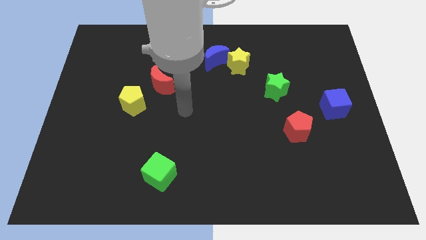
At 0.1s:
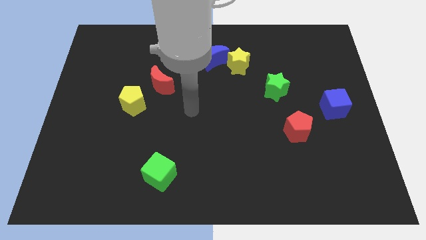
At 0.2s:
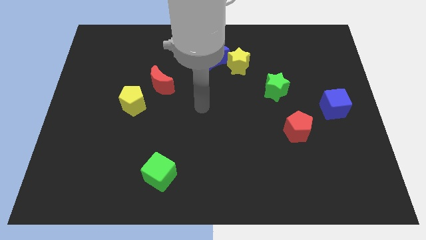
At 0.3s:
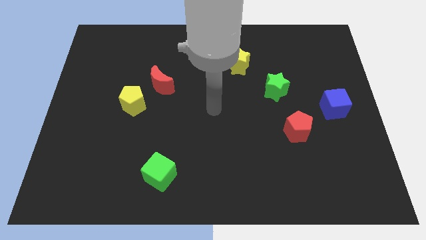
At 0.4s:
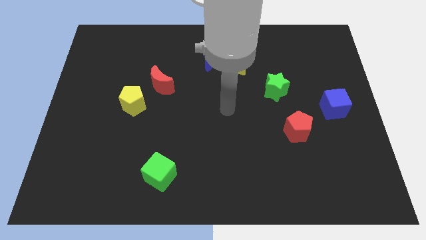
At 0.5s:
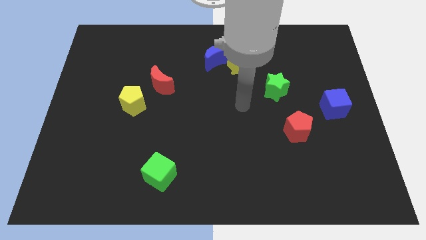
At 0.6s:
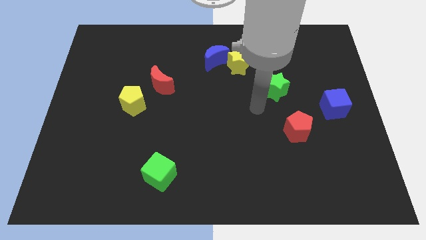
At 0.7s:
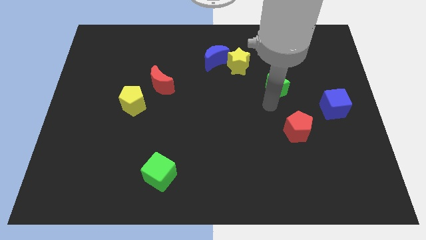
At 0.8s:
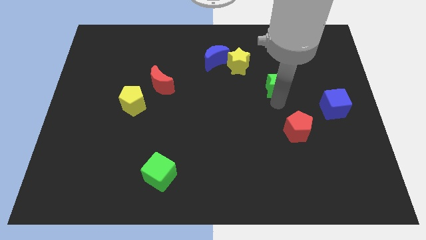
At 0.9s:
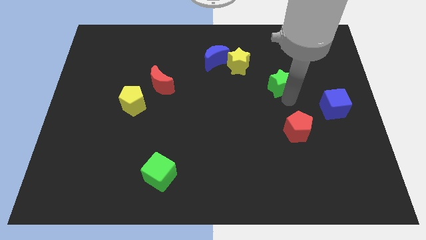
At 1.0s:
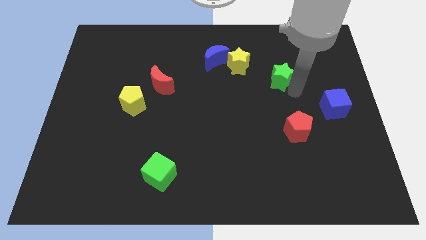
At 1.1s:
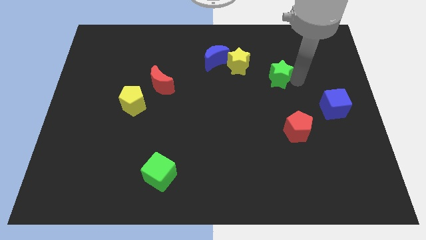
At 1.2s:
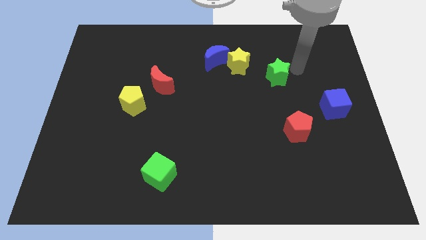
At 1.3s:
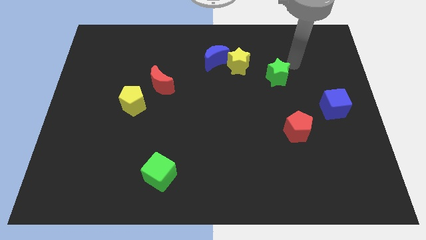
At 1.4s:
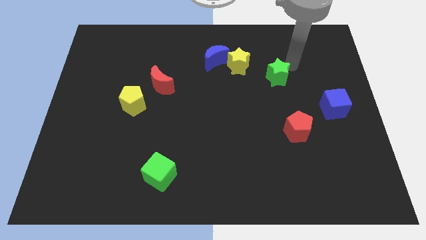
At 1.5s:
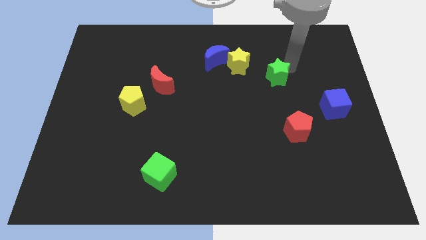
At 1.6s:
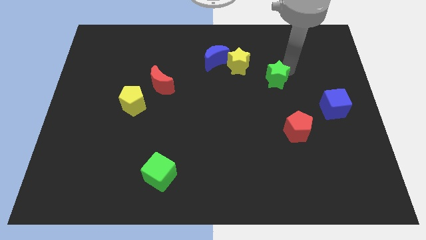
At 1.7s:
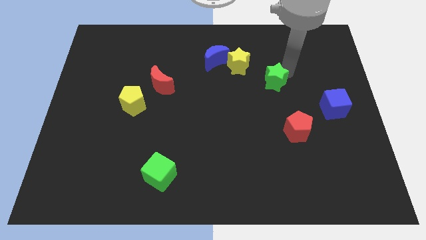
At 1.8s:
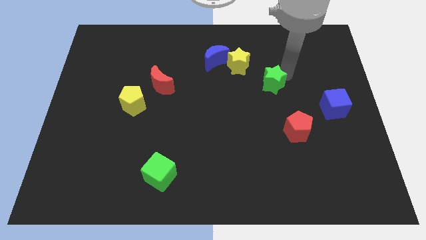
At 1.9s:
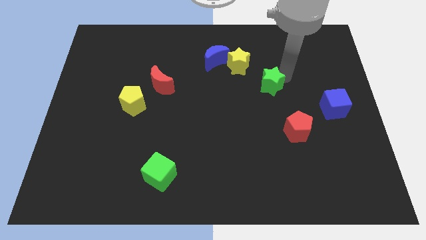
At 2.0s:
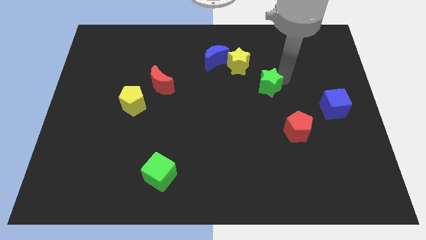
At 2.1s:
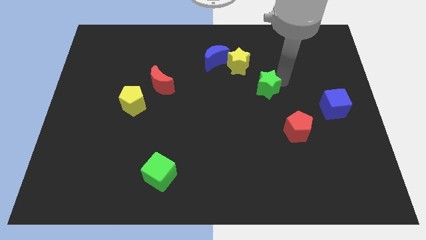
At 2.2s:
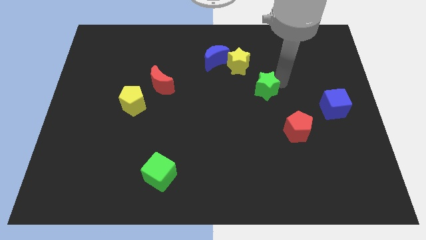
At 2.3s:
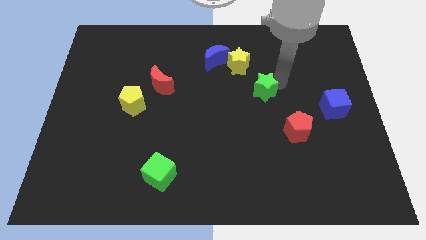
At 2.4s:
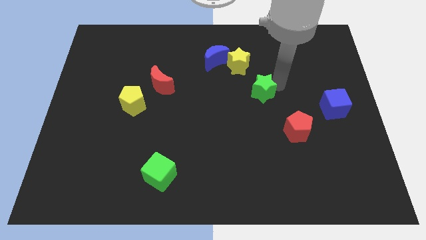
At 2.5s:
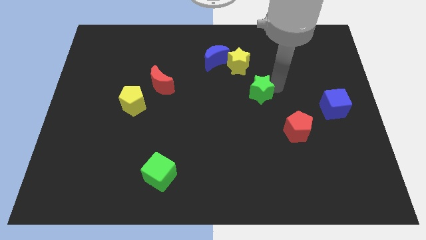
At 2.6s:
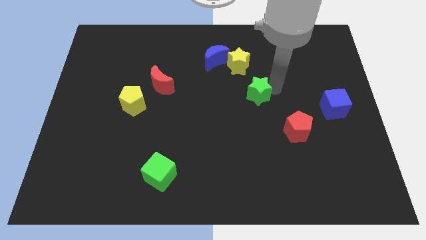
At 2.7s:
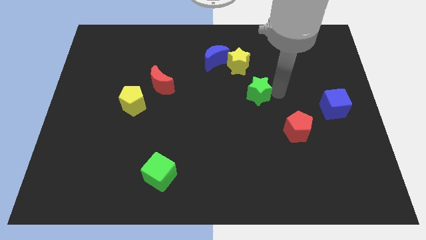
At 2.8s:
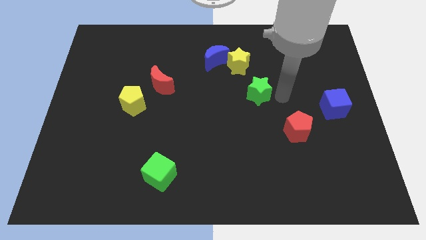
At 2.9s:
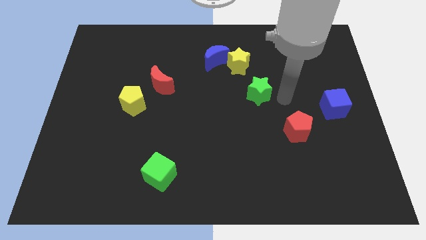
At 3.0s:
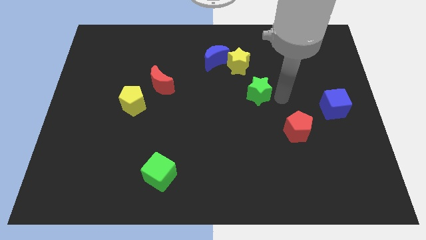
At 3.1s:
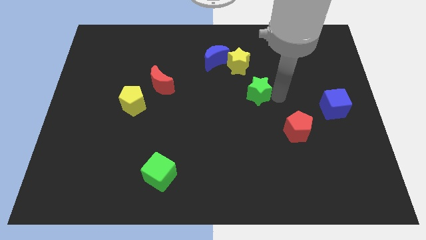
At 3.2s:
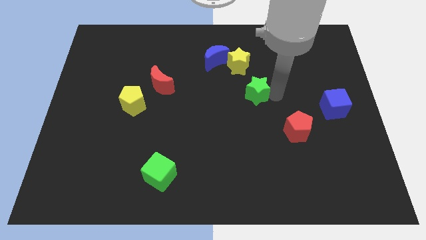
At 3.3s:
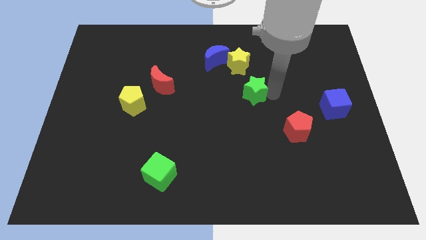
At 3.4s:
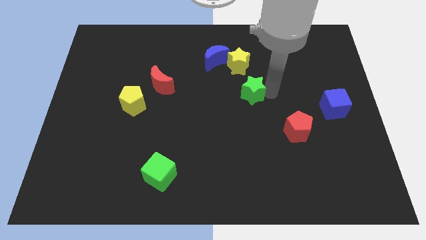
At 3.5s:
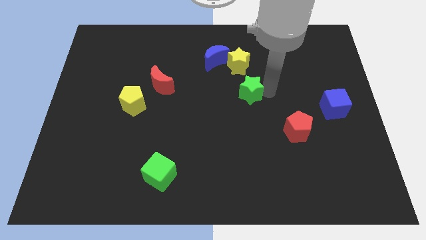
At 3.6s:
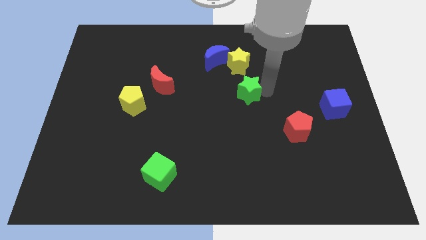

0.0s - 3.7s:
push the green star slightly left

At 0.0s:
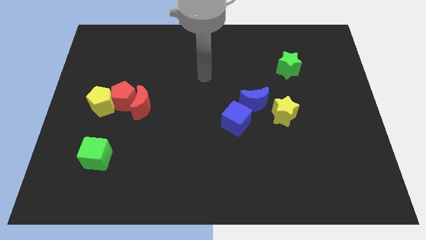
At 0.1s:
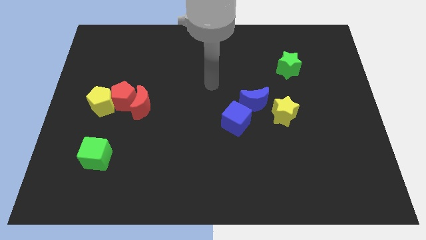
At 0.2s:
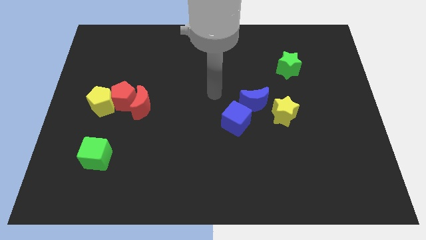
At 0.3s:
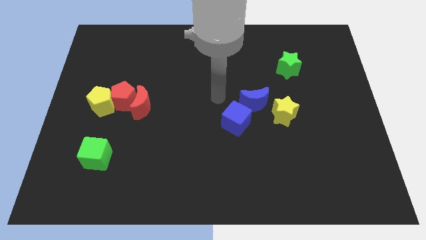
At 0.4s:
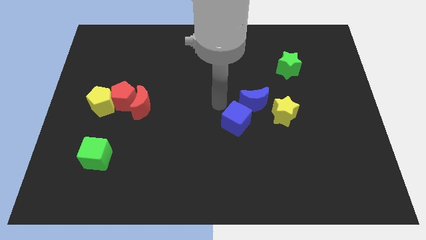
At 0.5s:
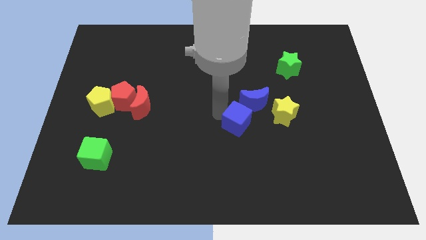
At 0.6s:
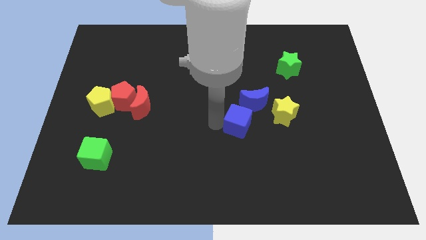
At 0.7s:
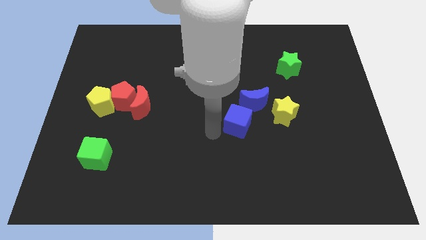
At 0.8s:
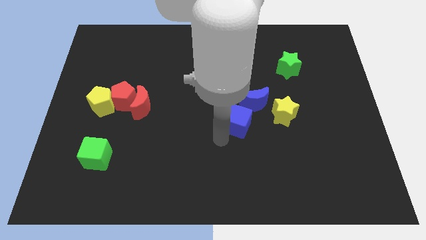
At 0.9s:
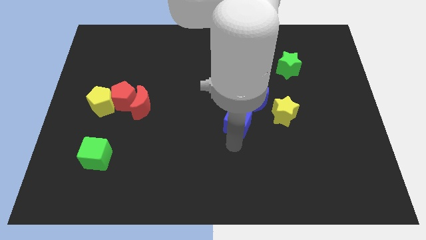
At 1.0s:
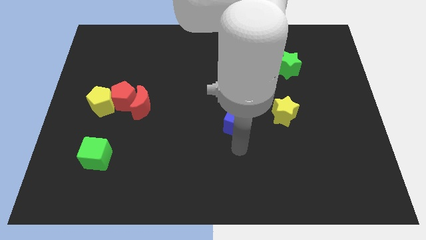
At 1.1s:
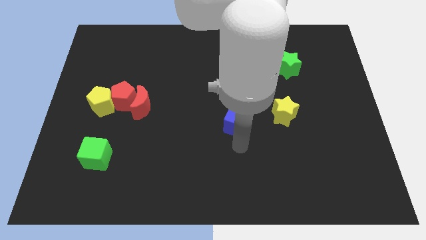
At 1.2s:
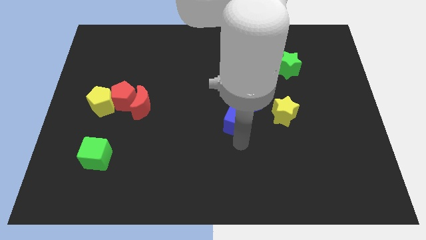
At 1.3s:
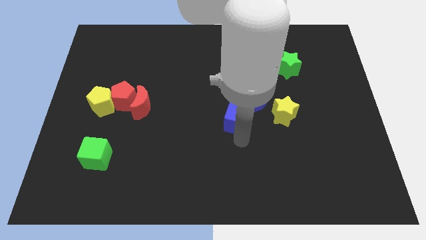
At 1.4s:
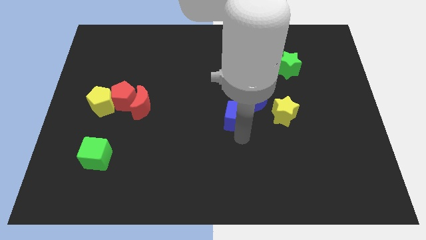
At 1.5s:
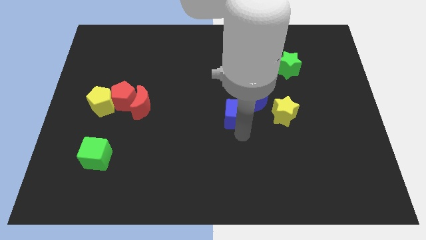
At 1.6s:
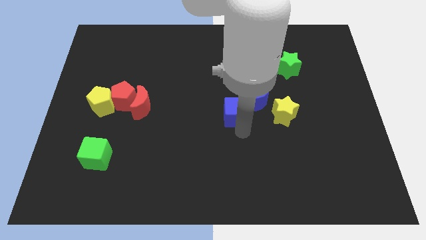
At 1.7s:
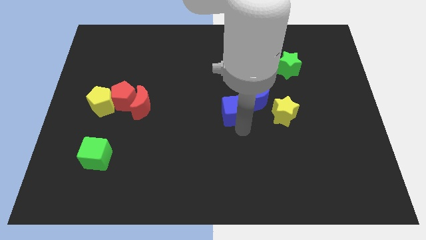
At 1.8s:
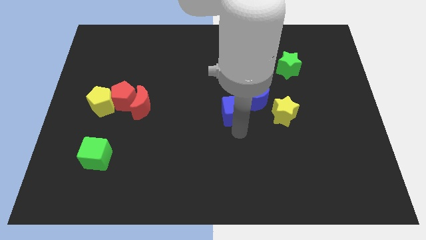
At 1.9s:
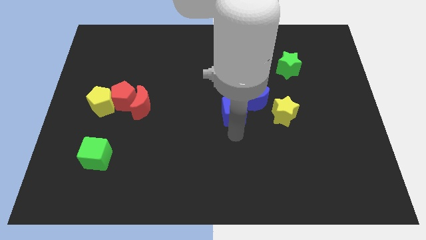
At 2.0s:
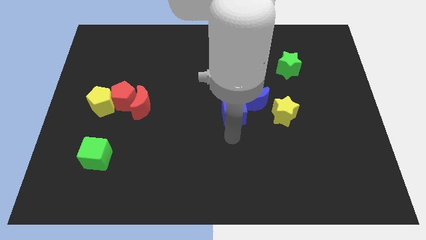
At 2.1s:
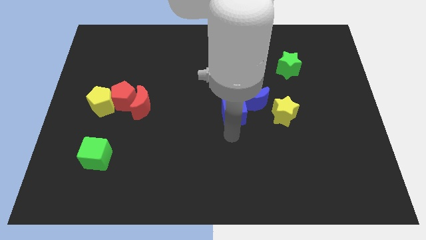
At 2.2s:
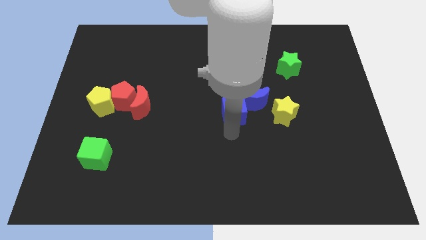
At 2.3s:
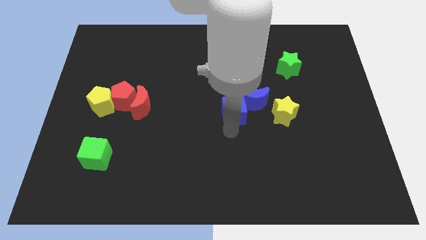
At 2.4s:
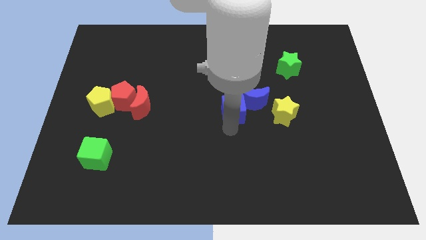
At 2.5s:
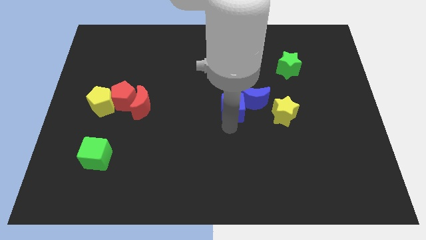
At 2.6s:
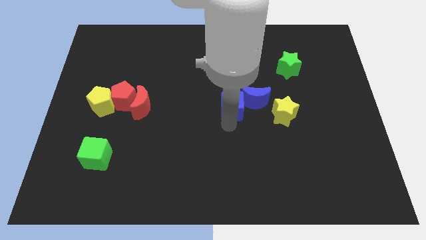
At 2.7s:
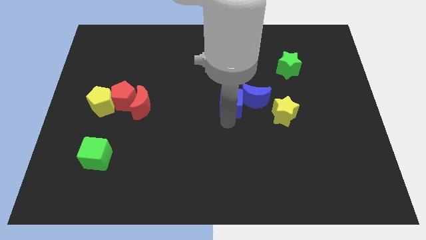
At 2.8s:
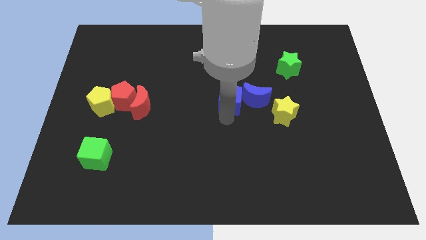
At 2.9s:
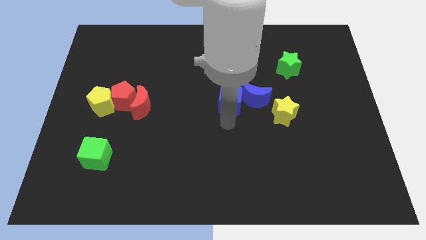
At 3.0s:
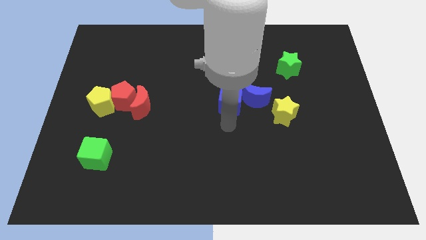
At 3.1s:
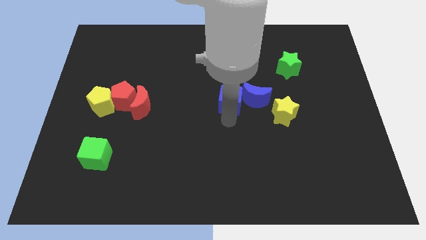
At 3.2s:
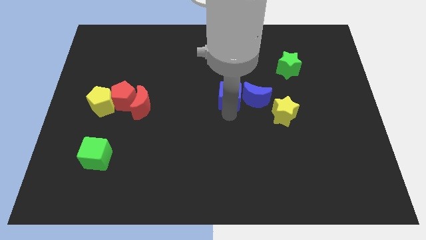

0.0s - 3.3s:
slightly slide the blue cube up

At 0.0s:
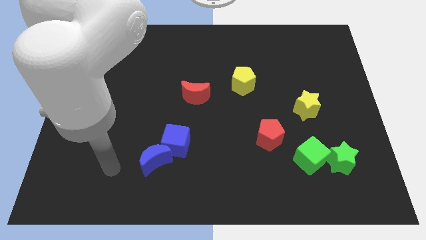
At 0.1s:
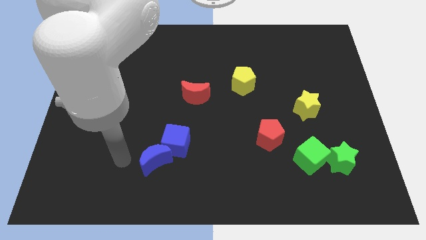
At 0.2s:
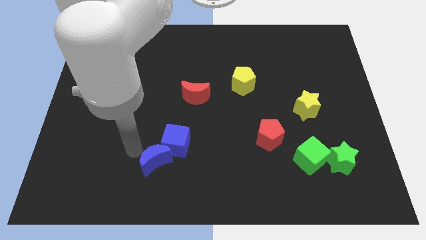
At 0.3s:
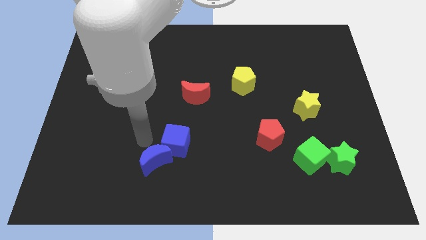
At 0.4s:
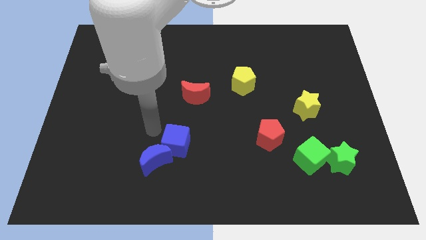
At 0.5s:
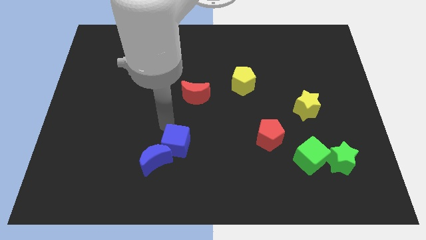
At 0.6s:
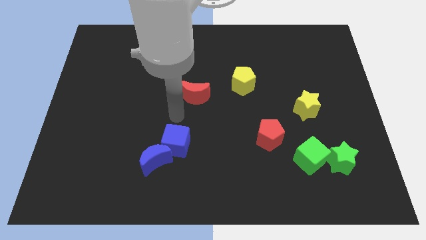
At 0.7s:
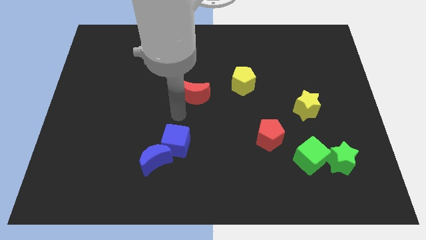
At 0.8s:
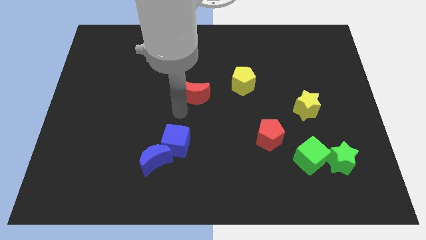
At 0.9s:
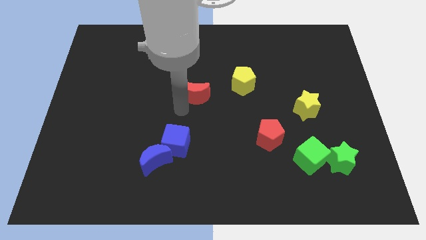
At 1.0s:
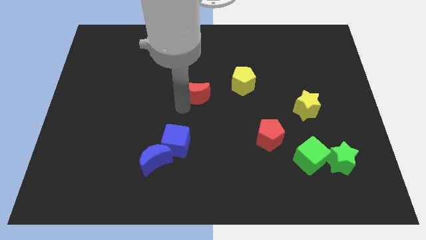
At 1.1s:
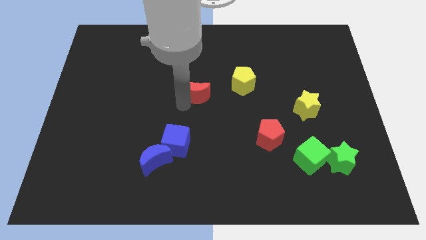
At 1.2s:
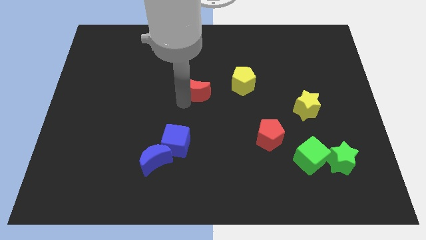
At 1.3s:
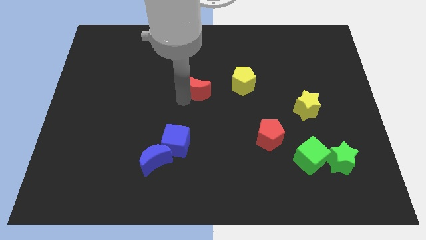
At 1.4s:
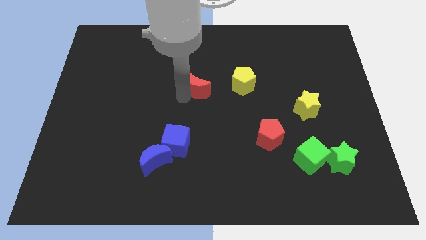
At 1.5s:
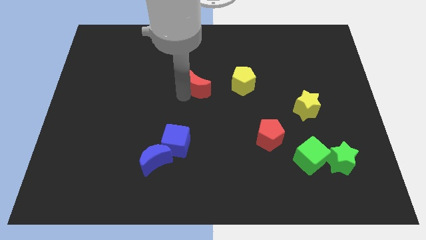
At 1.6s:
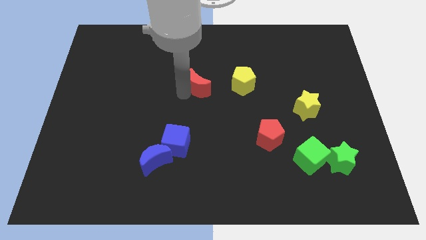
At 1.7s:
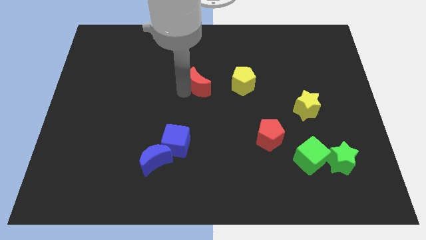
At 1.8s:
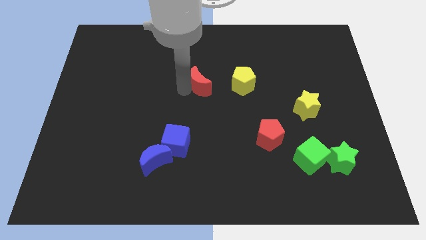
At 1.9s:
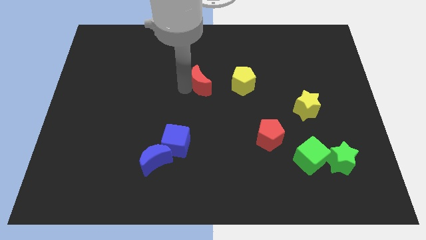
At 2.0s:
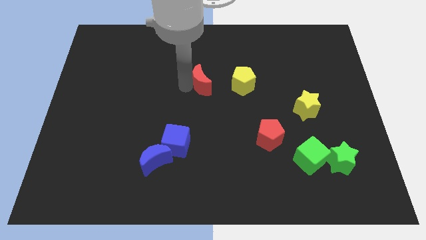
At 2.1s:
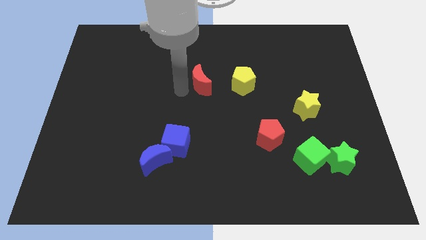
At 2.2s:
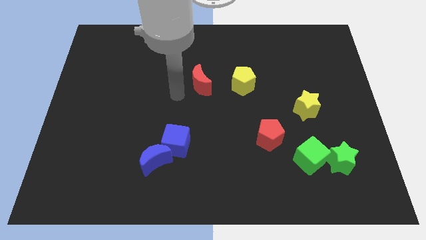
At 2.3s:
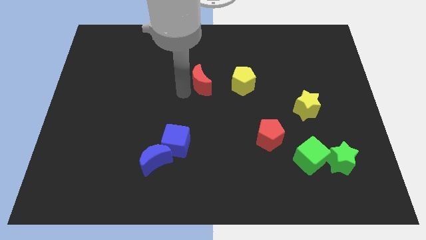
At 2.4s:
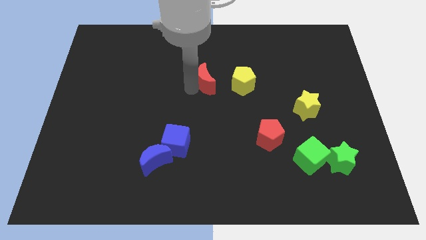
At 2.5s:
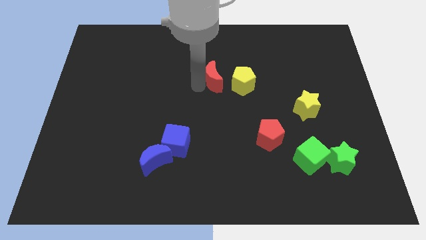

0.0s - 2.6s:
slightly slide the red moon diagonally up and to the right
